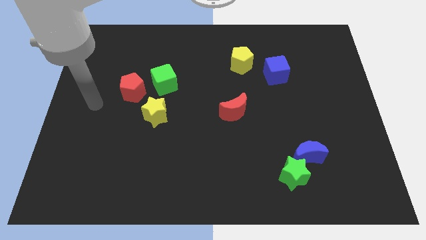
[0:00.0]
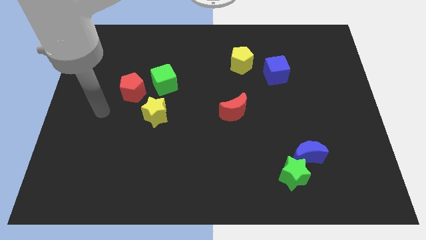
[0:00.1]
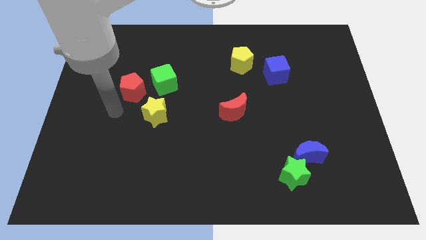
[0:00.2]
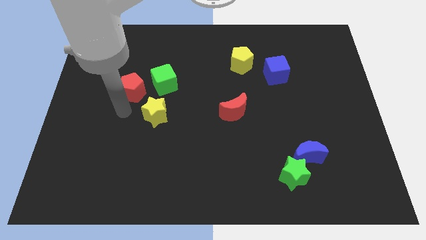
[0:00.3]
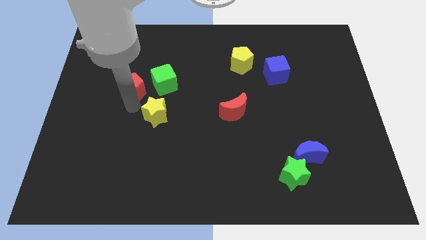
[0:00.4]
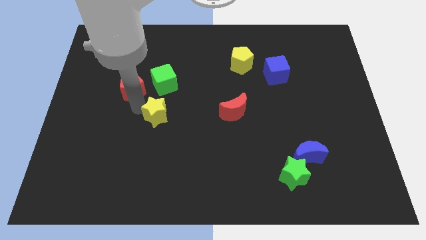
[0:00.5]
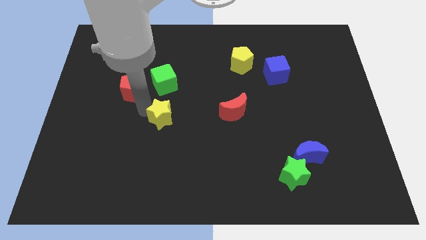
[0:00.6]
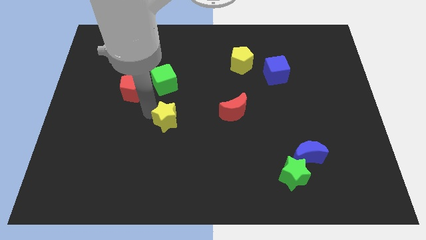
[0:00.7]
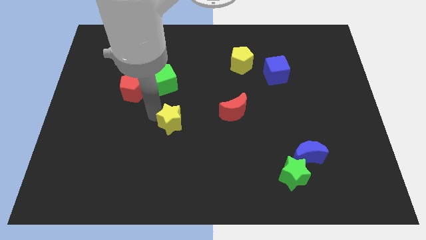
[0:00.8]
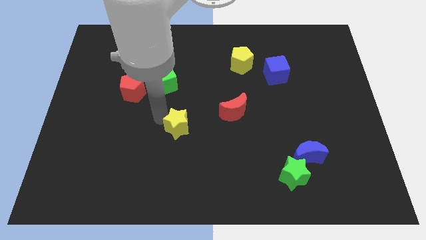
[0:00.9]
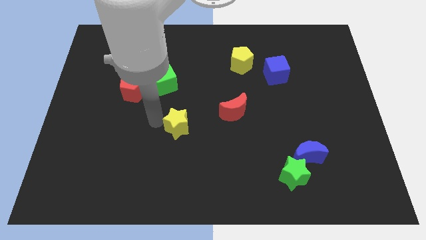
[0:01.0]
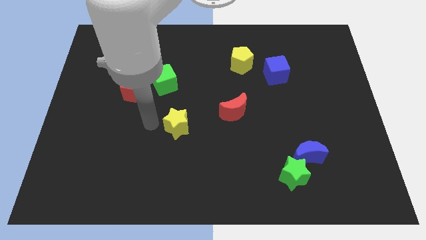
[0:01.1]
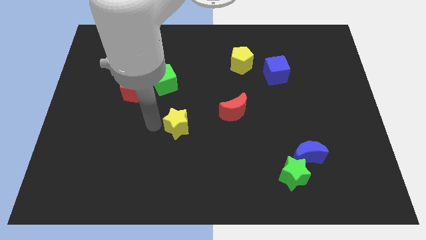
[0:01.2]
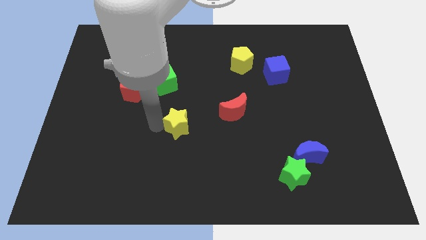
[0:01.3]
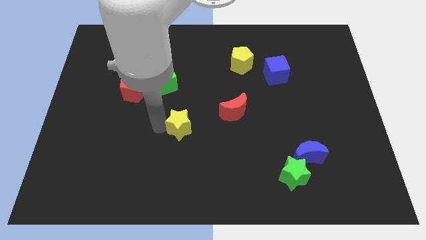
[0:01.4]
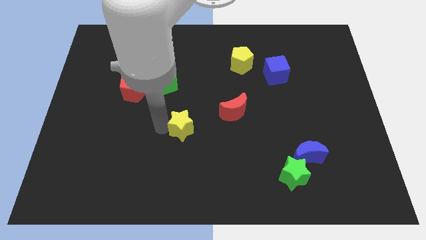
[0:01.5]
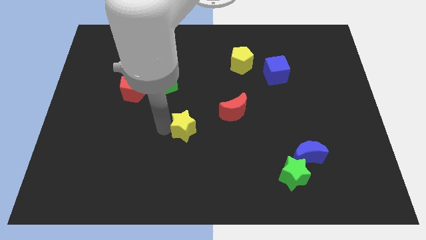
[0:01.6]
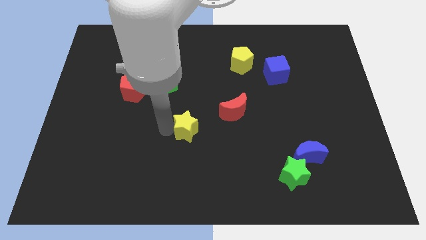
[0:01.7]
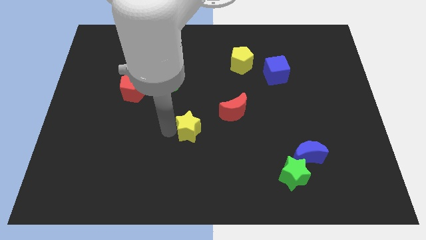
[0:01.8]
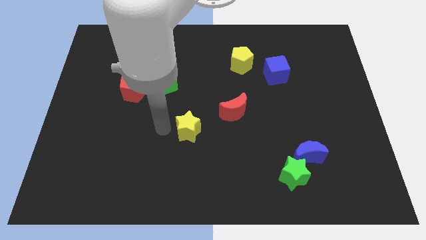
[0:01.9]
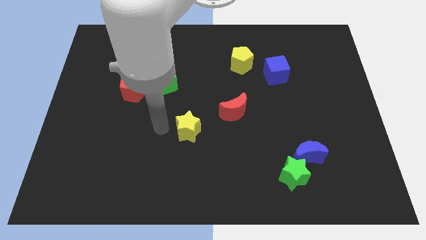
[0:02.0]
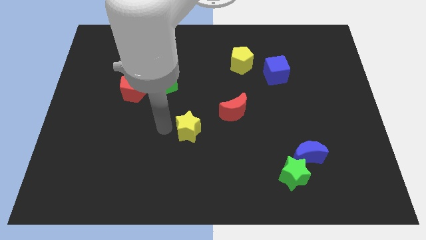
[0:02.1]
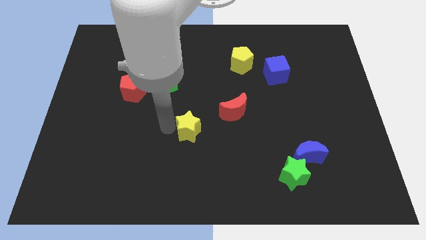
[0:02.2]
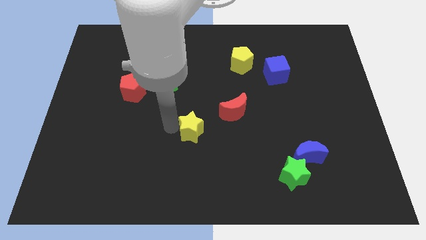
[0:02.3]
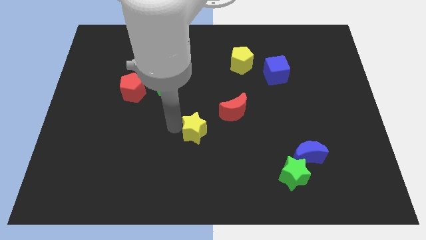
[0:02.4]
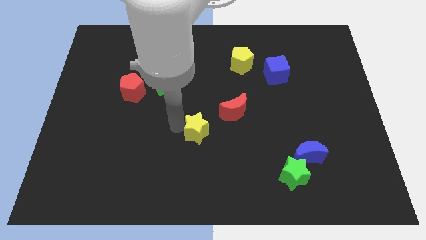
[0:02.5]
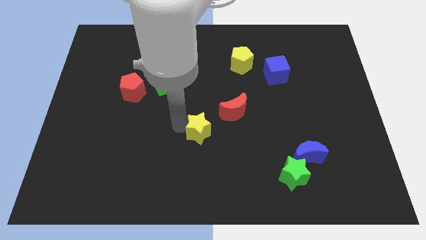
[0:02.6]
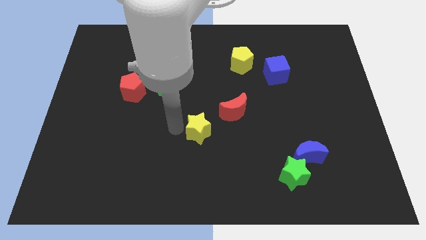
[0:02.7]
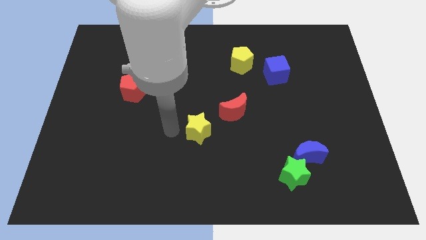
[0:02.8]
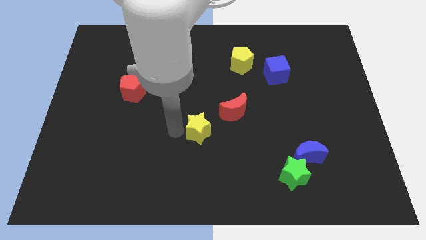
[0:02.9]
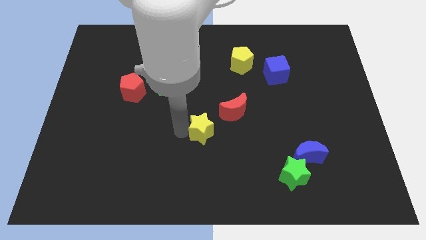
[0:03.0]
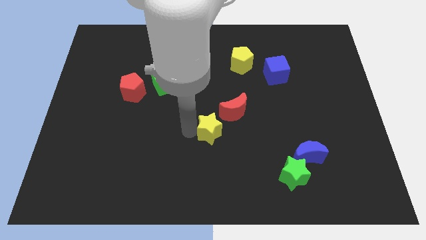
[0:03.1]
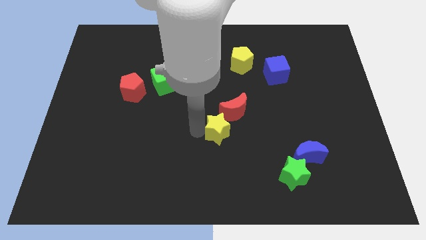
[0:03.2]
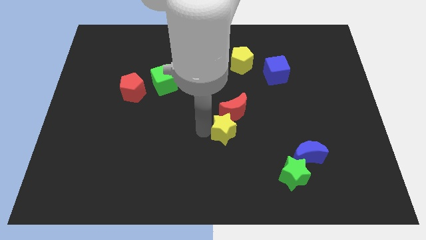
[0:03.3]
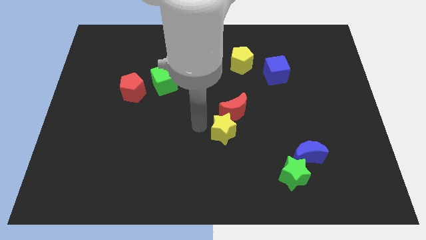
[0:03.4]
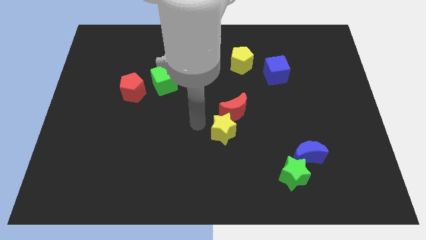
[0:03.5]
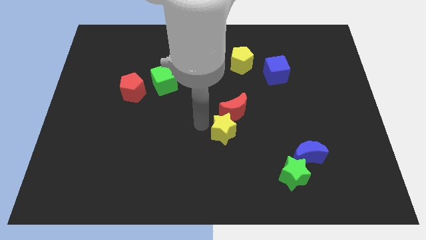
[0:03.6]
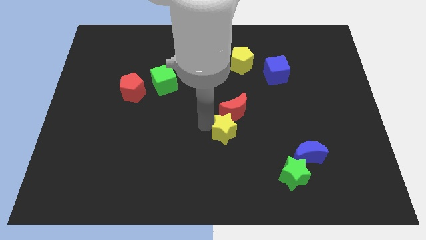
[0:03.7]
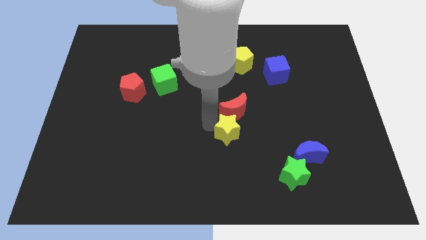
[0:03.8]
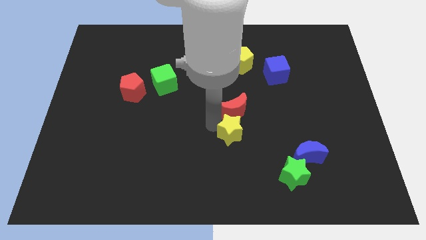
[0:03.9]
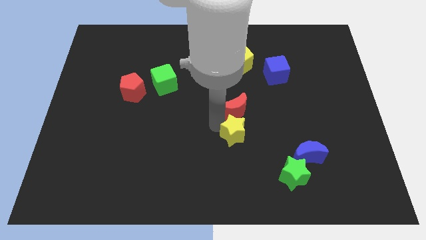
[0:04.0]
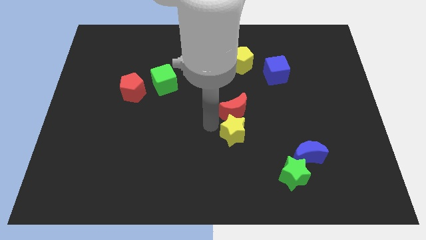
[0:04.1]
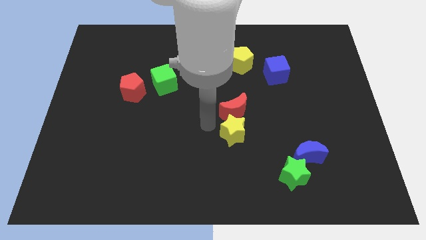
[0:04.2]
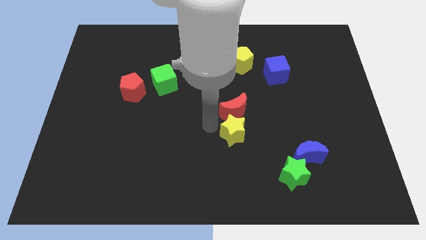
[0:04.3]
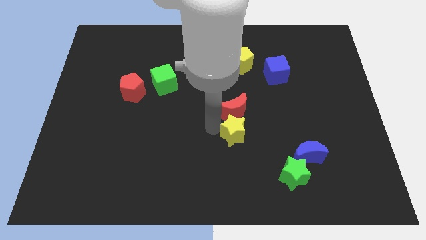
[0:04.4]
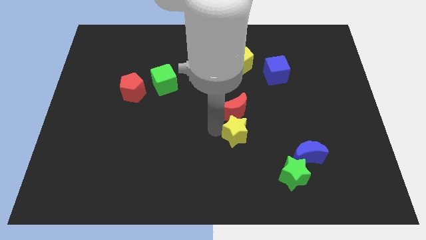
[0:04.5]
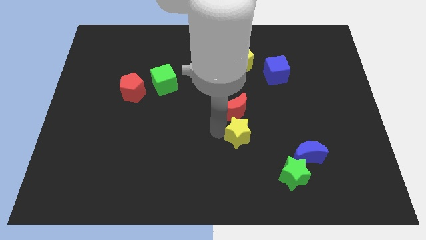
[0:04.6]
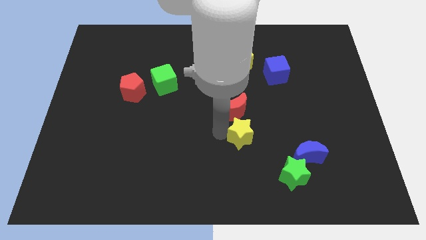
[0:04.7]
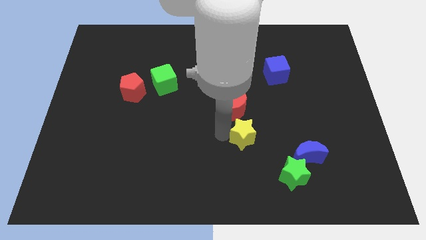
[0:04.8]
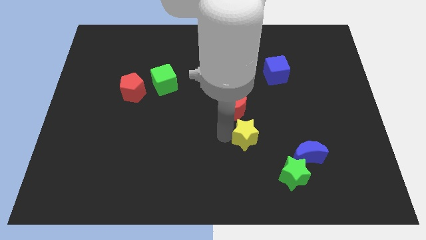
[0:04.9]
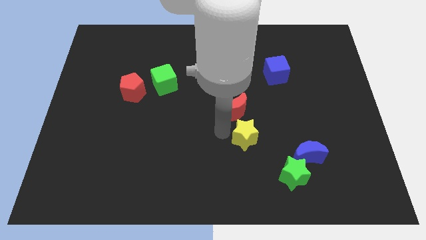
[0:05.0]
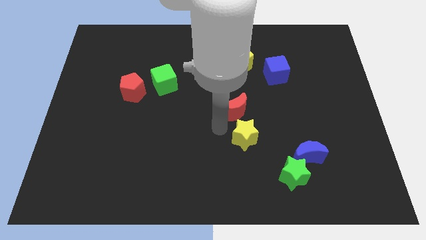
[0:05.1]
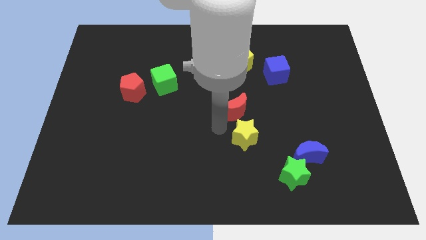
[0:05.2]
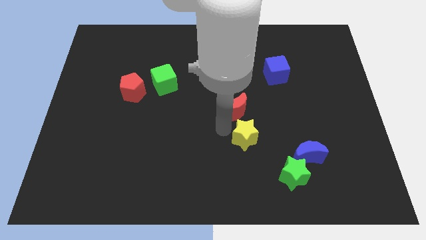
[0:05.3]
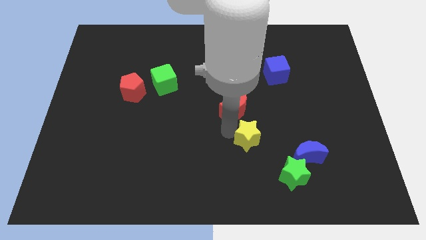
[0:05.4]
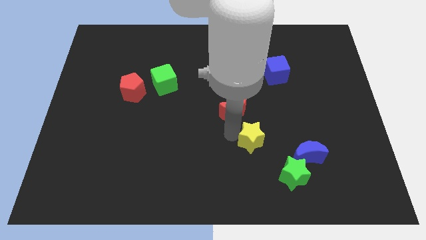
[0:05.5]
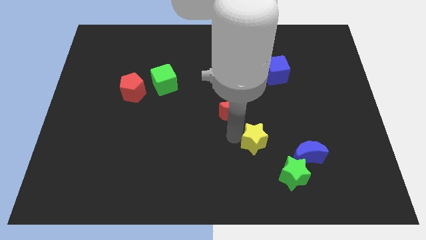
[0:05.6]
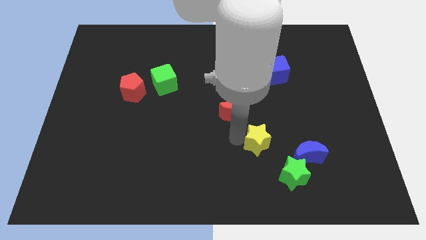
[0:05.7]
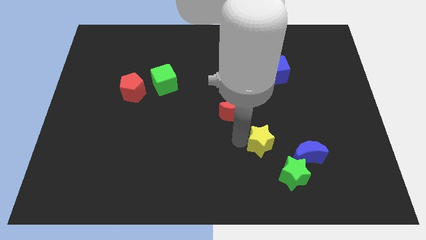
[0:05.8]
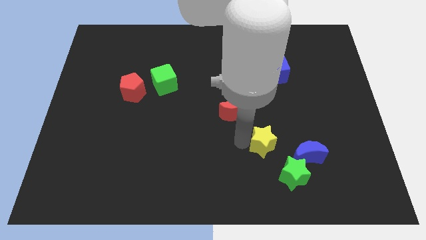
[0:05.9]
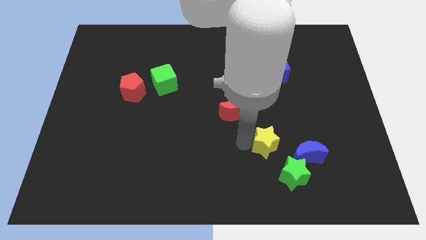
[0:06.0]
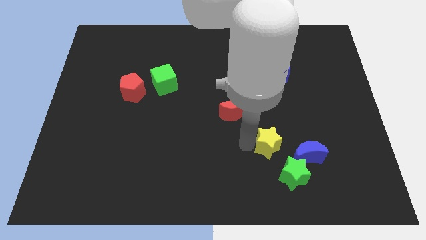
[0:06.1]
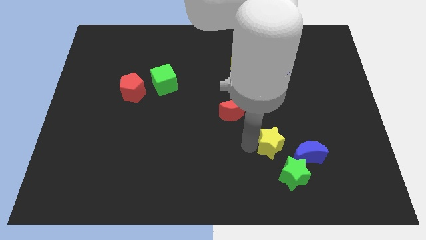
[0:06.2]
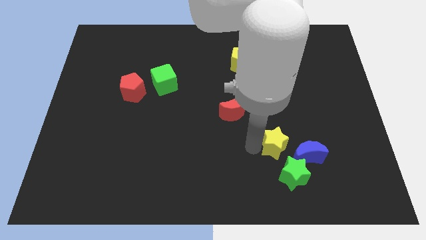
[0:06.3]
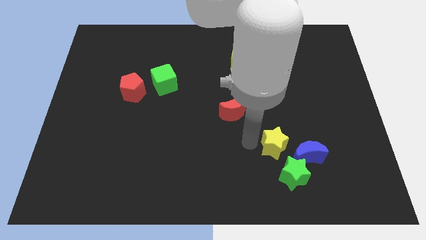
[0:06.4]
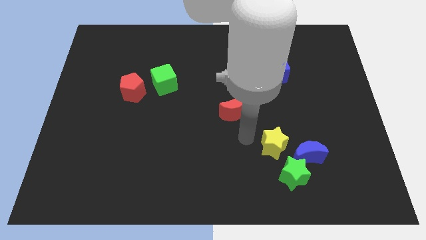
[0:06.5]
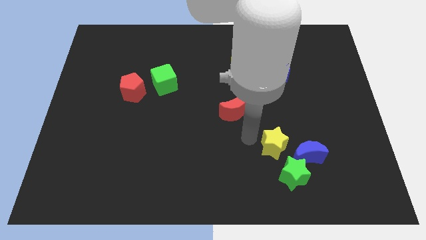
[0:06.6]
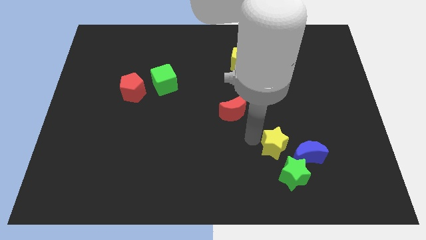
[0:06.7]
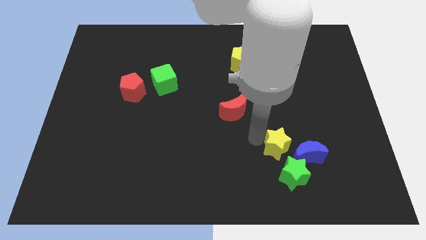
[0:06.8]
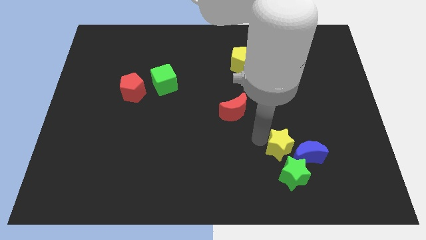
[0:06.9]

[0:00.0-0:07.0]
move the yellow star towards the blue moon

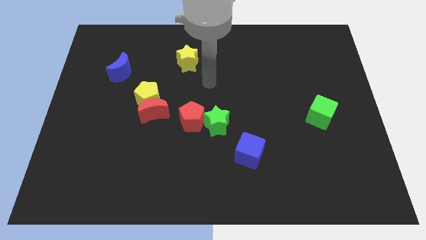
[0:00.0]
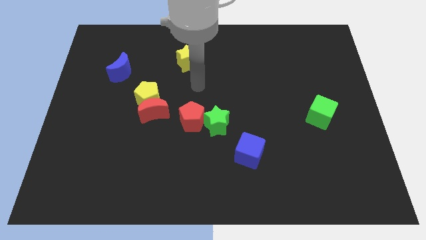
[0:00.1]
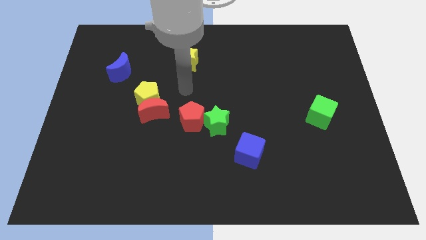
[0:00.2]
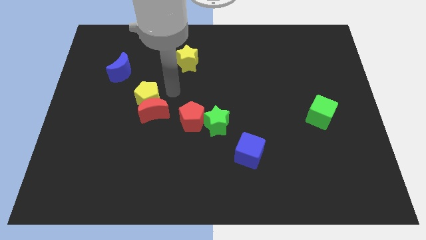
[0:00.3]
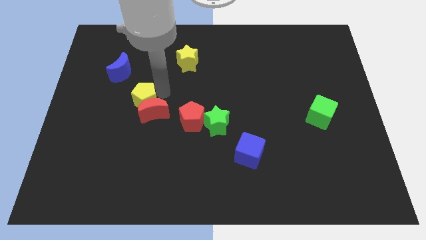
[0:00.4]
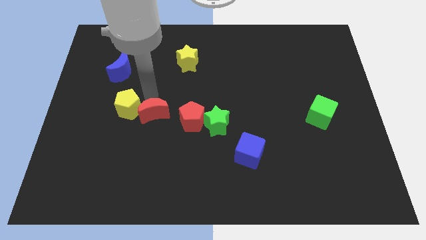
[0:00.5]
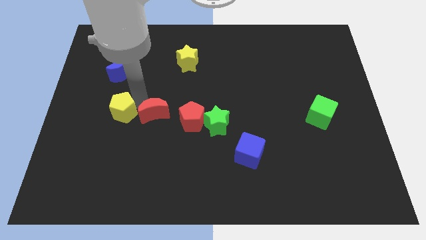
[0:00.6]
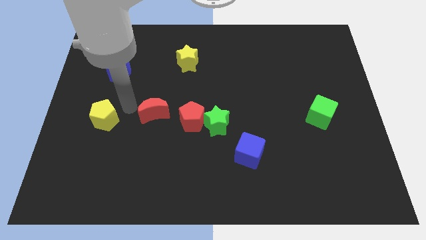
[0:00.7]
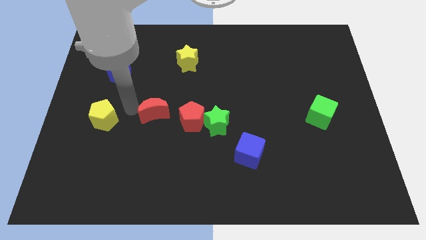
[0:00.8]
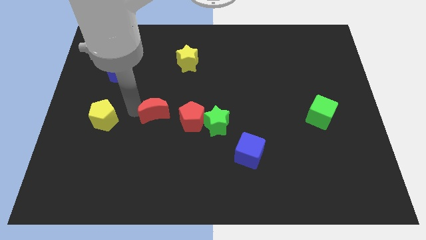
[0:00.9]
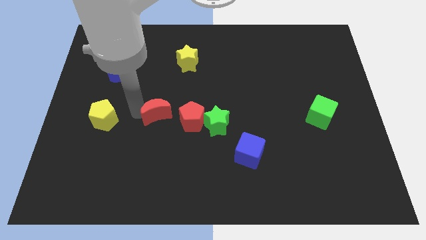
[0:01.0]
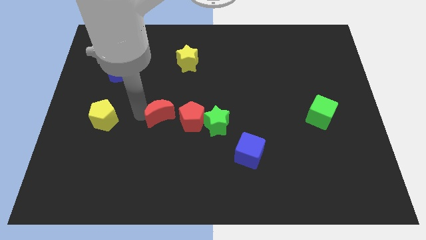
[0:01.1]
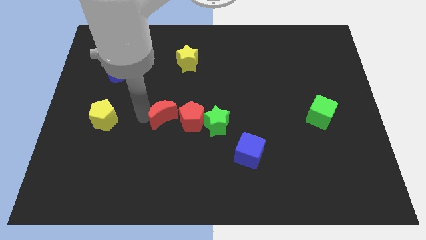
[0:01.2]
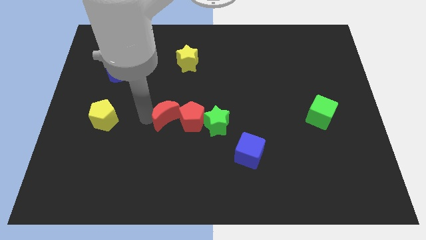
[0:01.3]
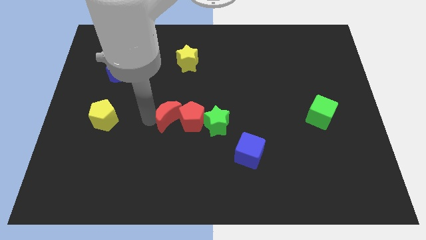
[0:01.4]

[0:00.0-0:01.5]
move the red moon to the red pentagon
